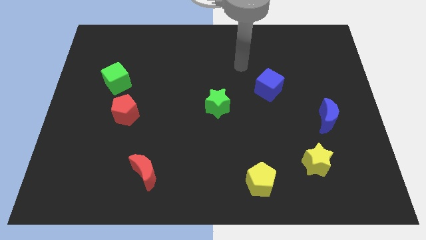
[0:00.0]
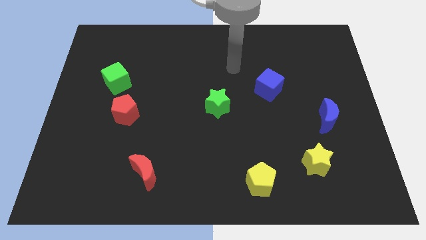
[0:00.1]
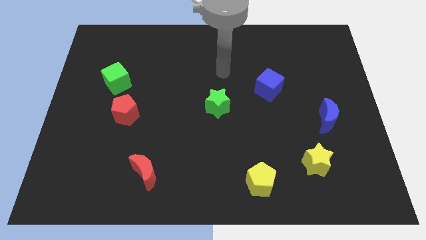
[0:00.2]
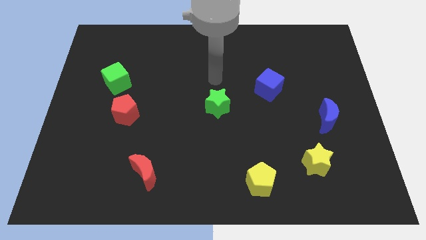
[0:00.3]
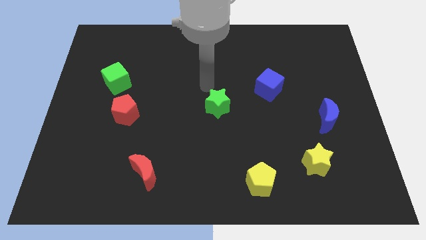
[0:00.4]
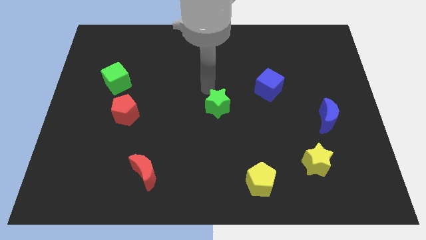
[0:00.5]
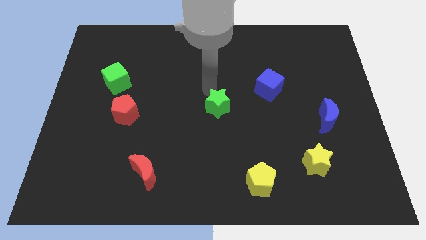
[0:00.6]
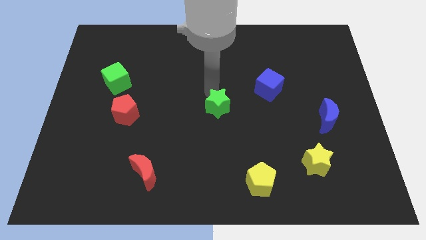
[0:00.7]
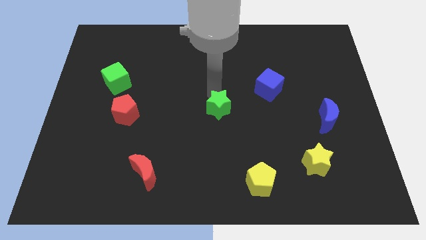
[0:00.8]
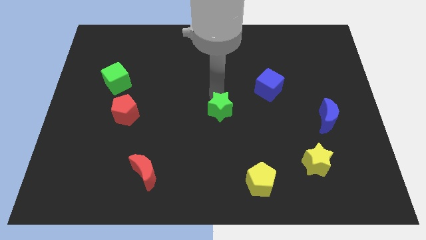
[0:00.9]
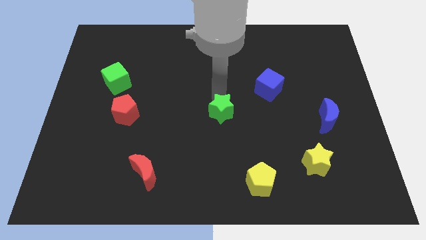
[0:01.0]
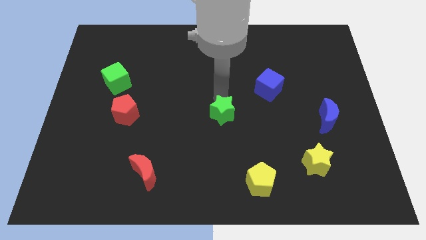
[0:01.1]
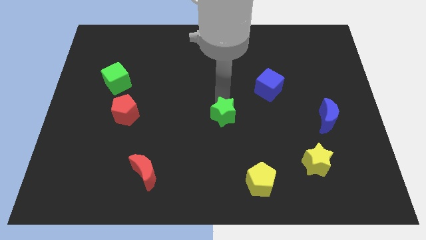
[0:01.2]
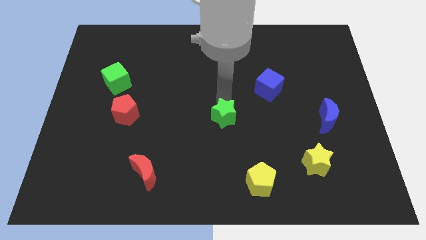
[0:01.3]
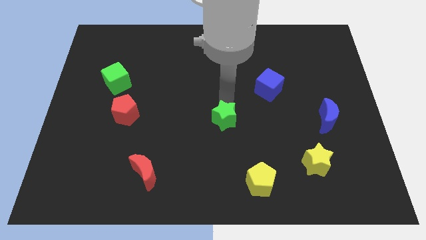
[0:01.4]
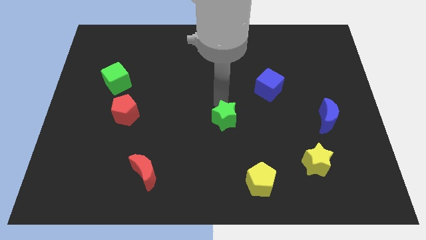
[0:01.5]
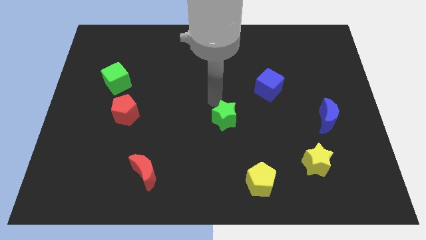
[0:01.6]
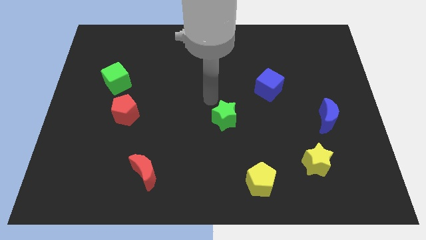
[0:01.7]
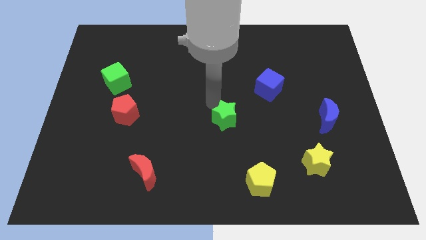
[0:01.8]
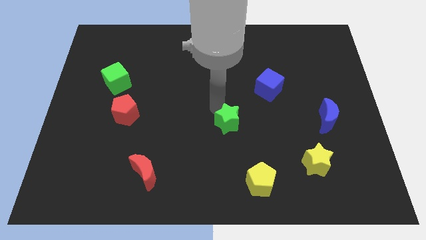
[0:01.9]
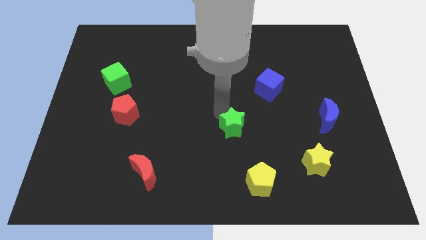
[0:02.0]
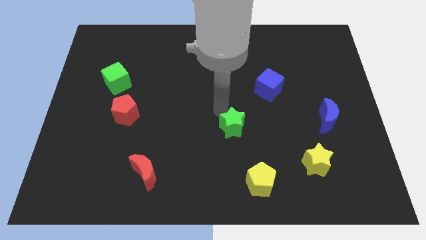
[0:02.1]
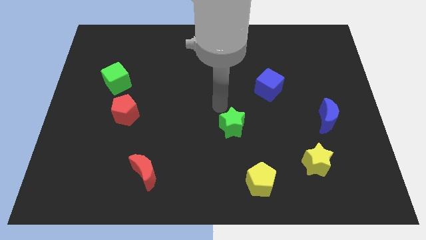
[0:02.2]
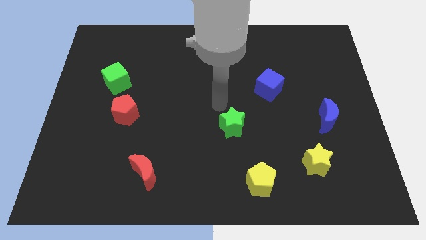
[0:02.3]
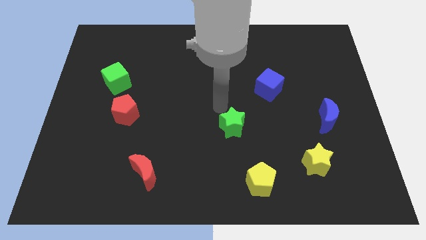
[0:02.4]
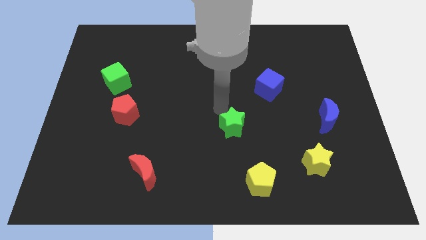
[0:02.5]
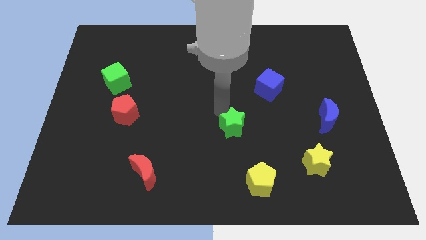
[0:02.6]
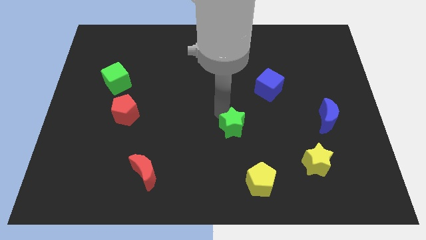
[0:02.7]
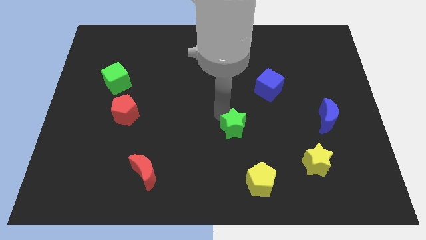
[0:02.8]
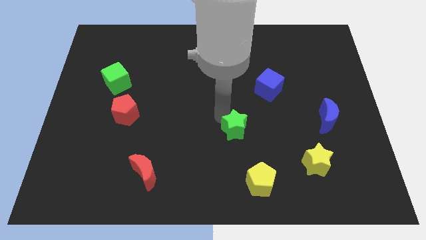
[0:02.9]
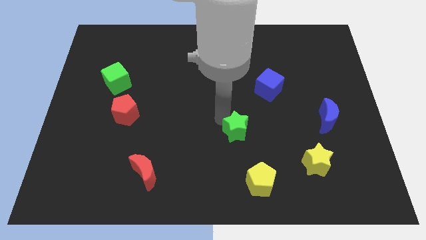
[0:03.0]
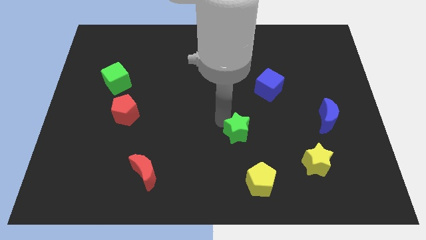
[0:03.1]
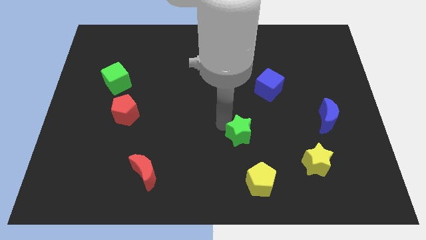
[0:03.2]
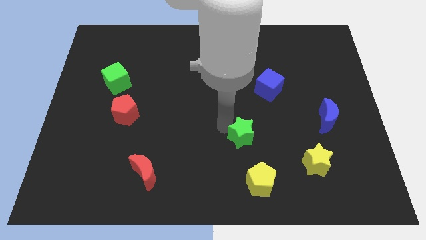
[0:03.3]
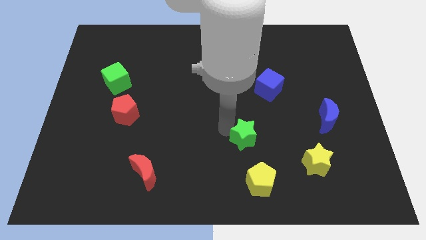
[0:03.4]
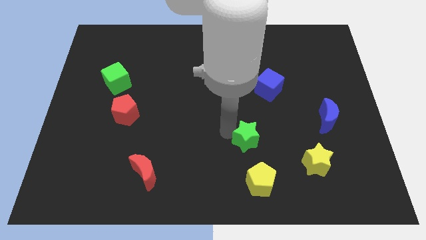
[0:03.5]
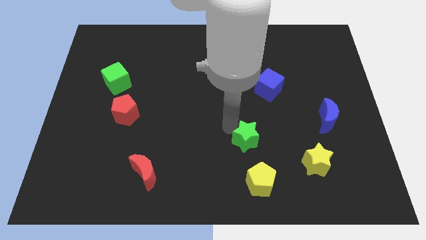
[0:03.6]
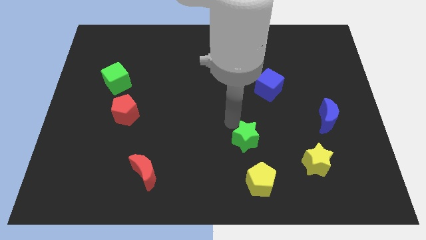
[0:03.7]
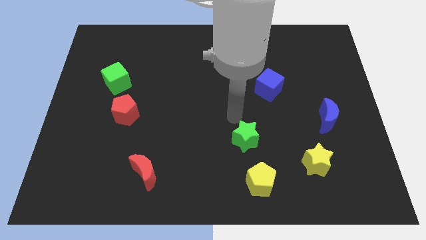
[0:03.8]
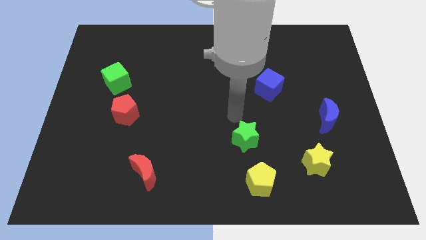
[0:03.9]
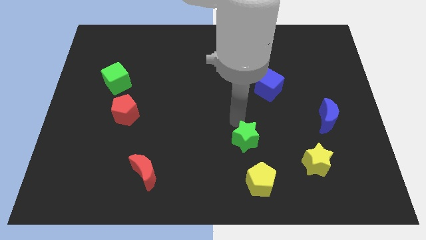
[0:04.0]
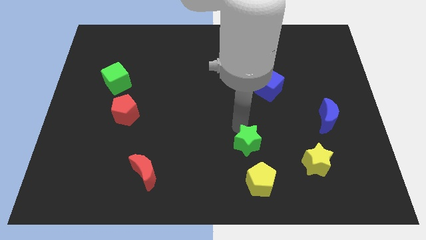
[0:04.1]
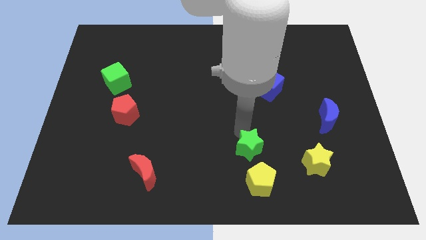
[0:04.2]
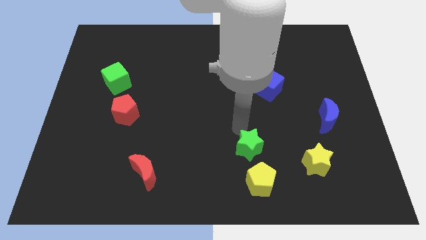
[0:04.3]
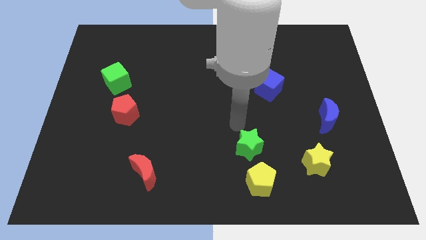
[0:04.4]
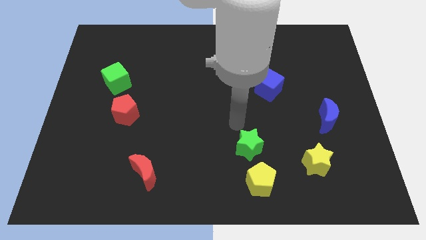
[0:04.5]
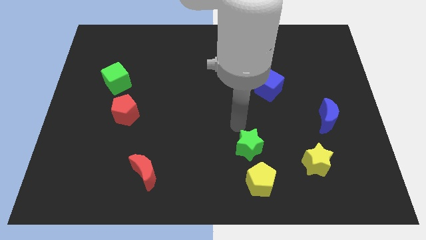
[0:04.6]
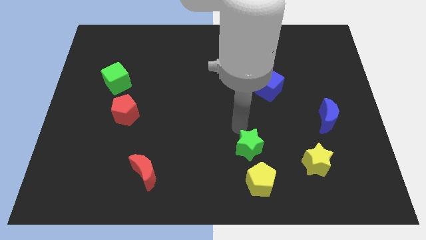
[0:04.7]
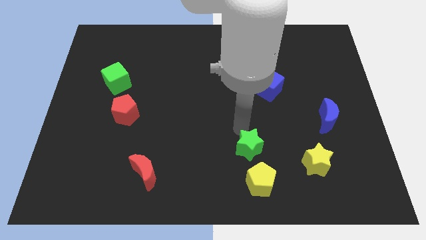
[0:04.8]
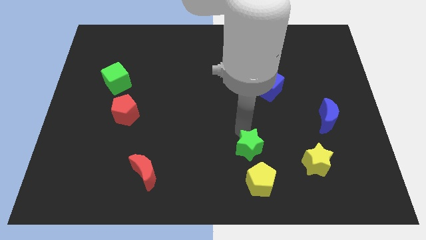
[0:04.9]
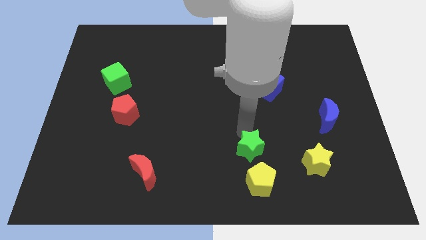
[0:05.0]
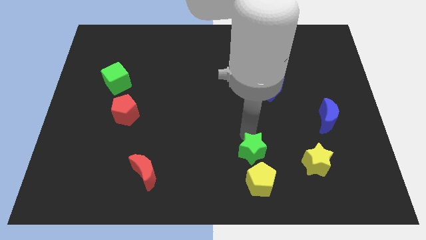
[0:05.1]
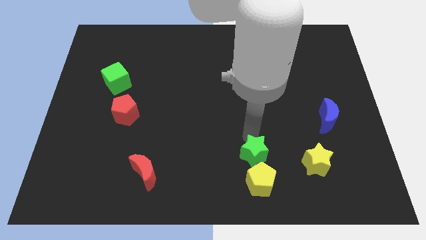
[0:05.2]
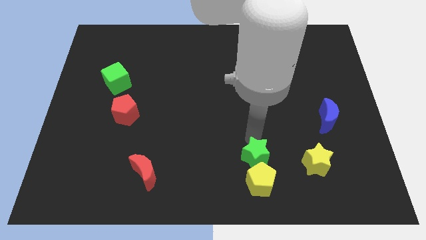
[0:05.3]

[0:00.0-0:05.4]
move the green star next to the yellow pentagon

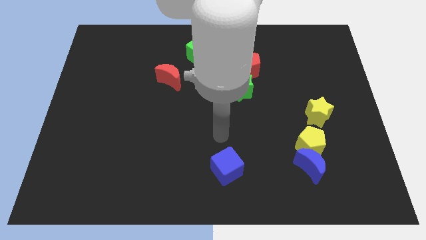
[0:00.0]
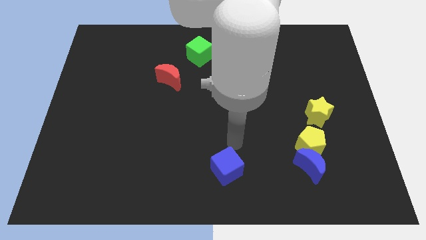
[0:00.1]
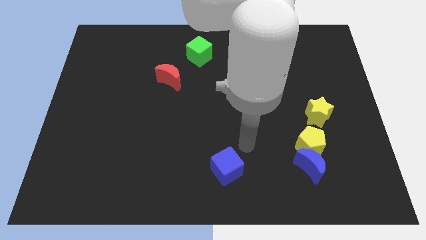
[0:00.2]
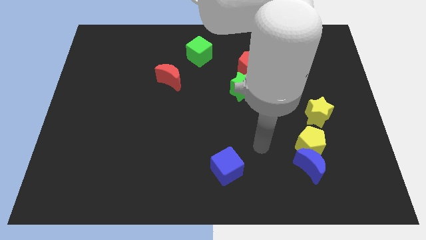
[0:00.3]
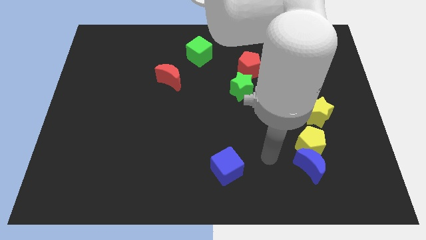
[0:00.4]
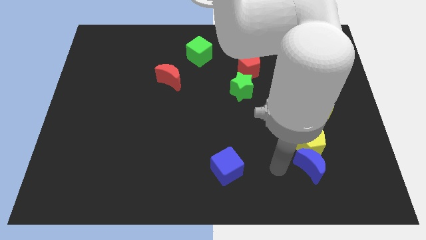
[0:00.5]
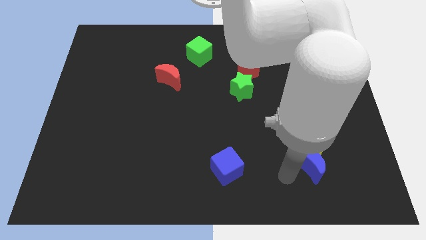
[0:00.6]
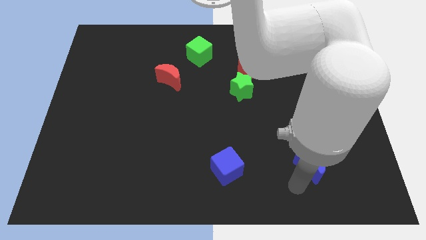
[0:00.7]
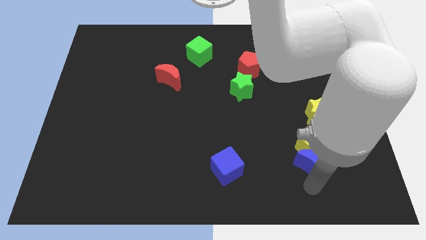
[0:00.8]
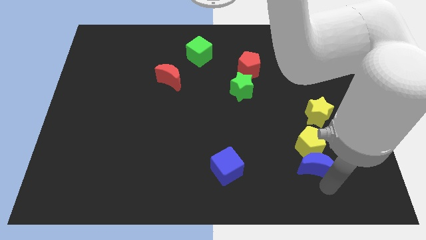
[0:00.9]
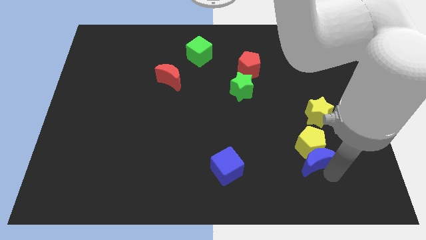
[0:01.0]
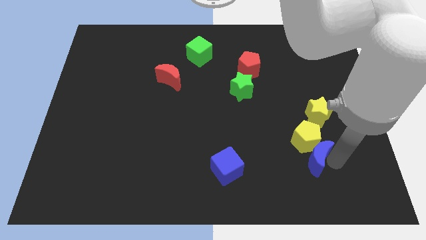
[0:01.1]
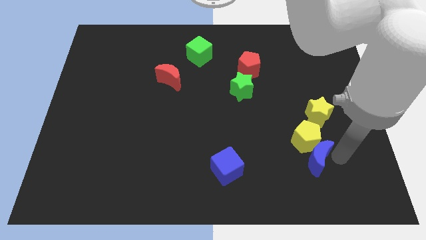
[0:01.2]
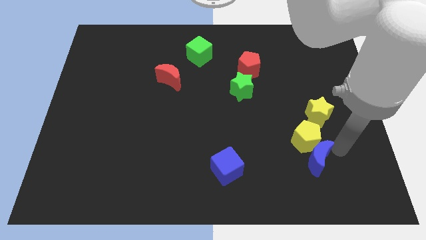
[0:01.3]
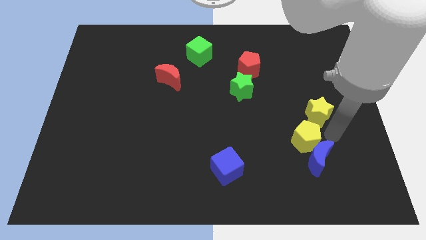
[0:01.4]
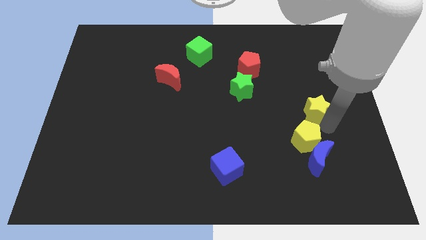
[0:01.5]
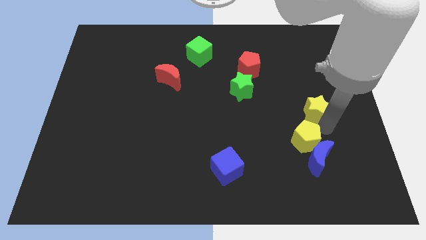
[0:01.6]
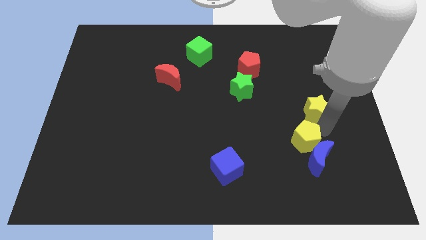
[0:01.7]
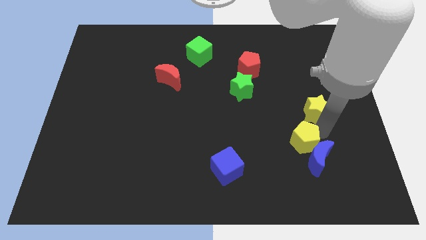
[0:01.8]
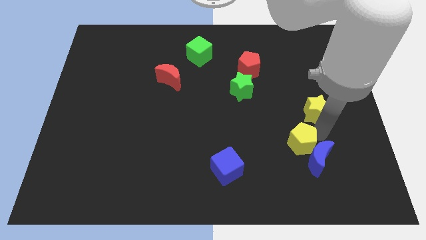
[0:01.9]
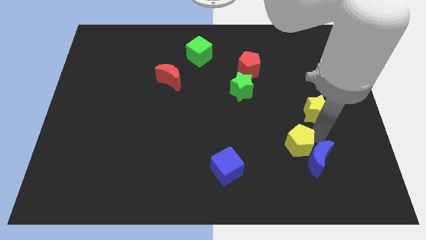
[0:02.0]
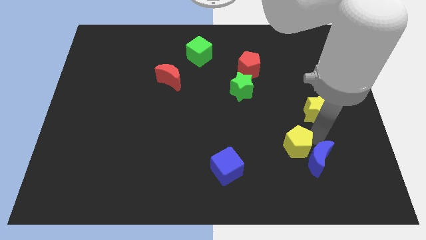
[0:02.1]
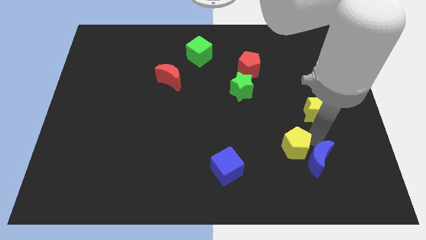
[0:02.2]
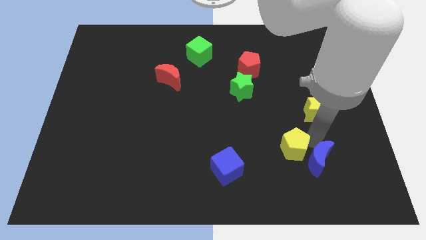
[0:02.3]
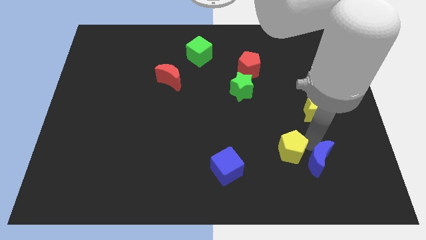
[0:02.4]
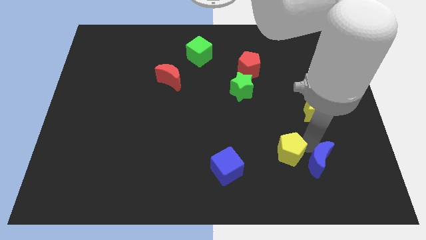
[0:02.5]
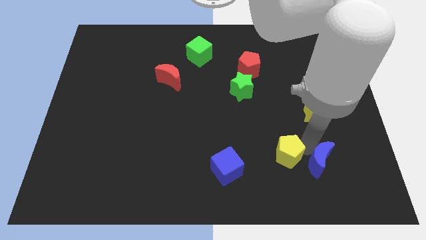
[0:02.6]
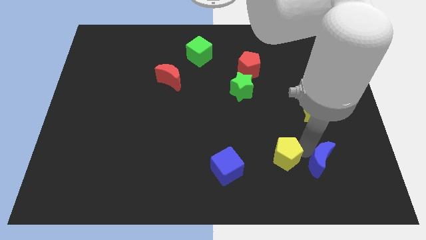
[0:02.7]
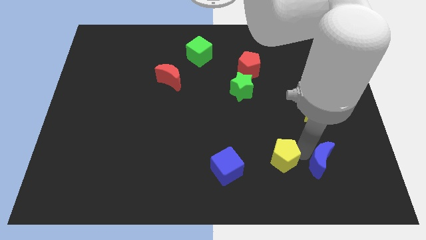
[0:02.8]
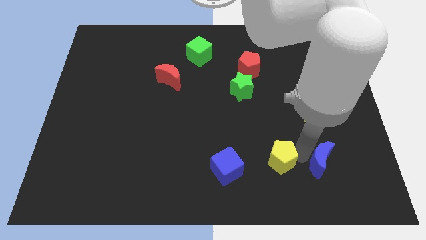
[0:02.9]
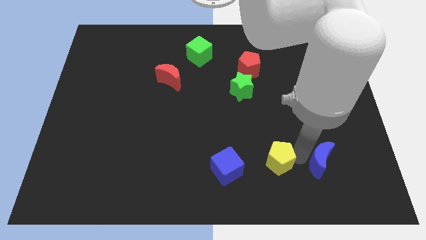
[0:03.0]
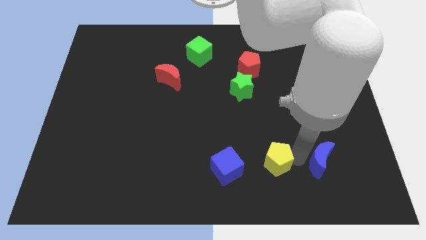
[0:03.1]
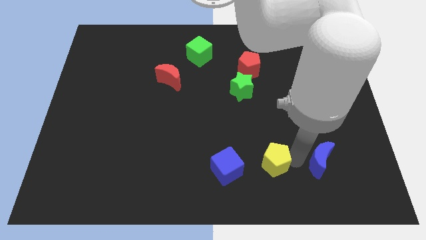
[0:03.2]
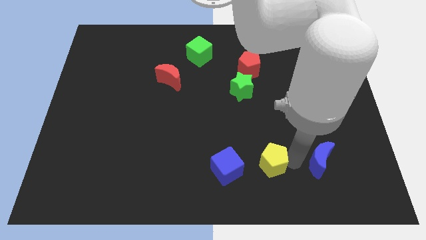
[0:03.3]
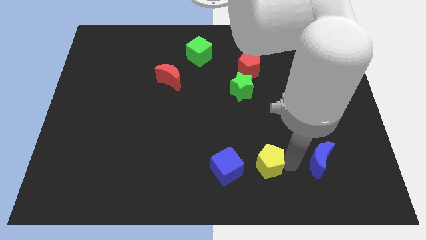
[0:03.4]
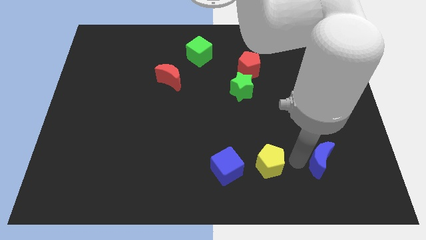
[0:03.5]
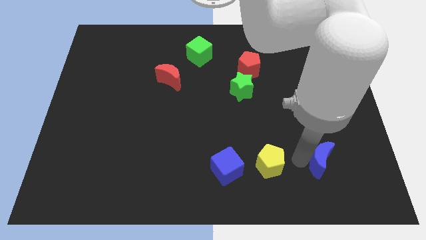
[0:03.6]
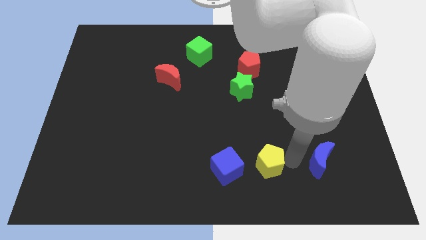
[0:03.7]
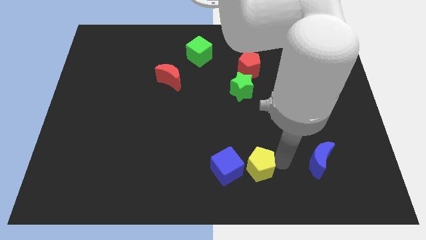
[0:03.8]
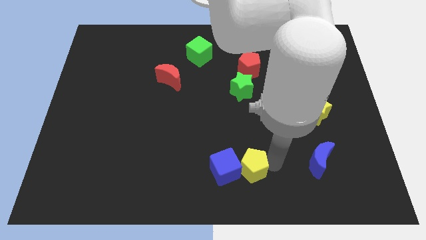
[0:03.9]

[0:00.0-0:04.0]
push the yellow pentagon towards the blue cube
